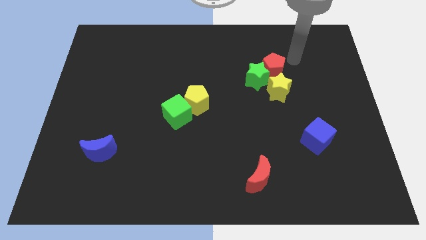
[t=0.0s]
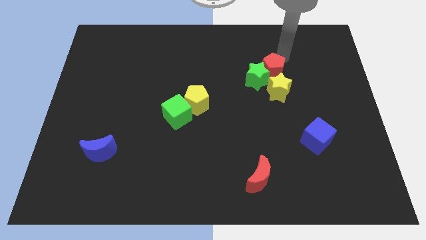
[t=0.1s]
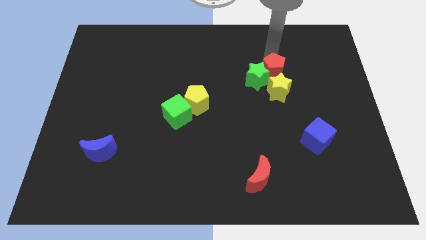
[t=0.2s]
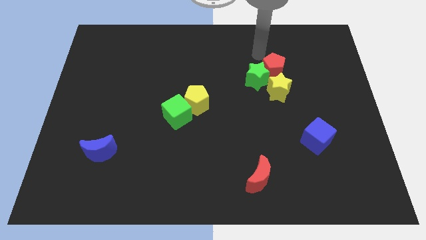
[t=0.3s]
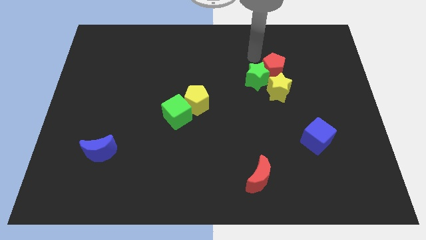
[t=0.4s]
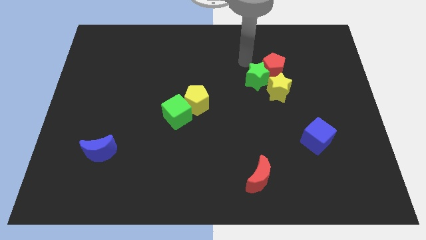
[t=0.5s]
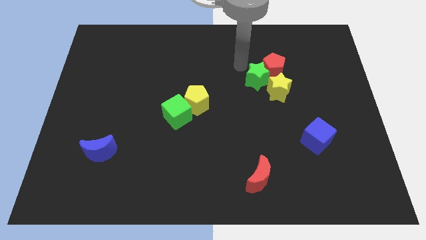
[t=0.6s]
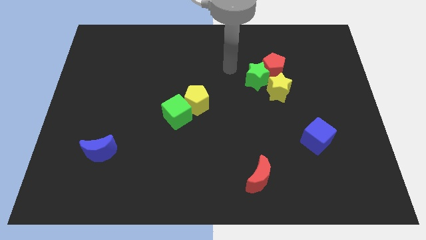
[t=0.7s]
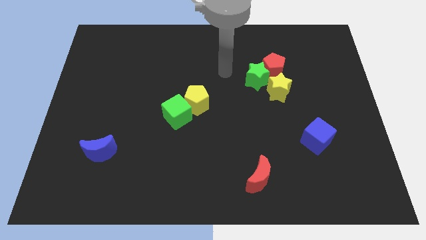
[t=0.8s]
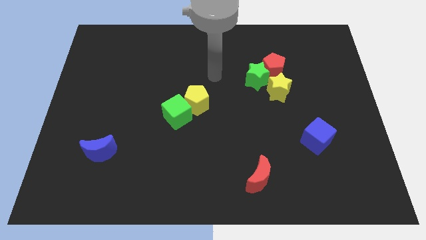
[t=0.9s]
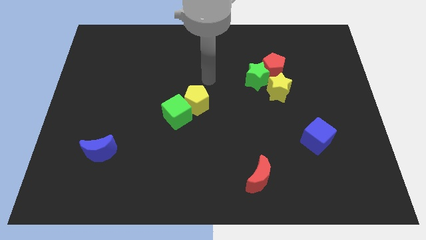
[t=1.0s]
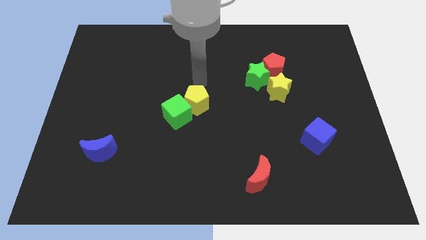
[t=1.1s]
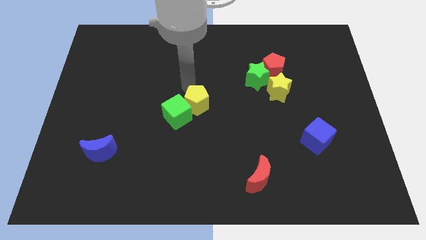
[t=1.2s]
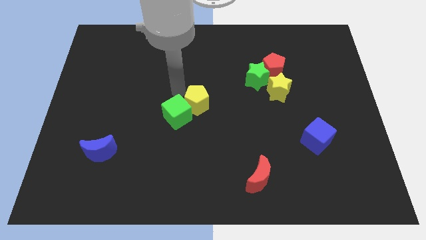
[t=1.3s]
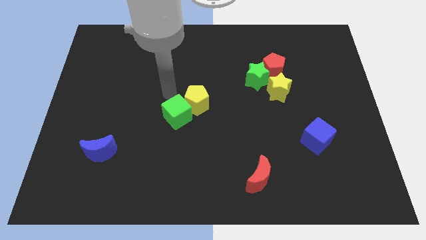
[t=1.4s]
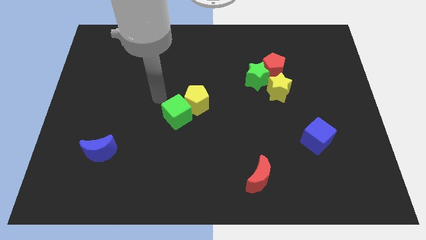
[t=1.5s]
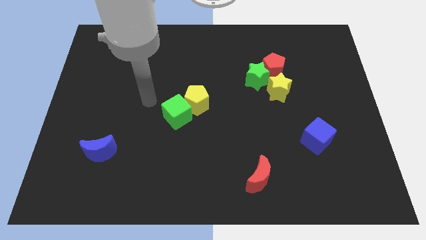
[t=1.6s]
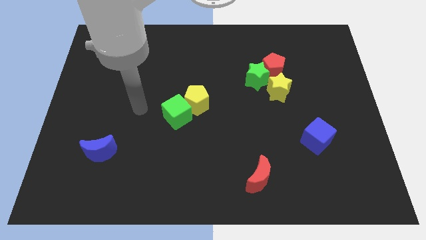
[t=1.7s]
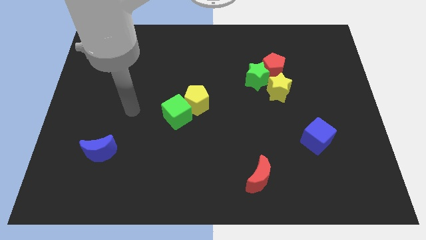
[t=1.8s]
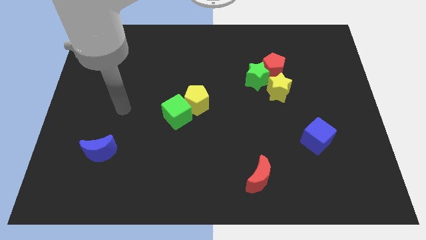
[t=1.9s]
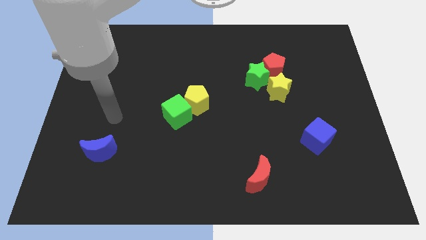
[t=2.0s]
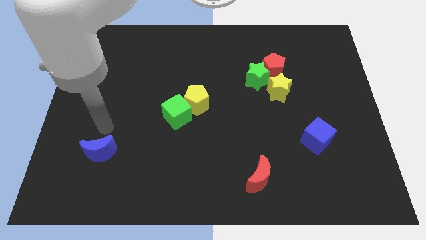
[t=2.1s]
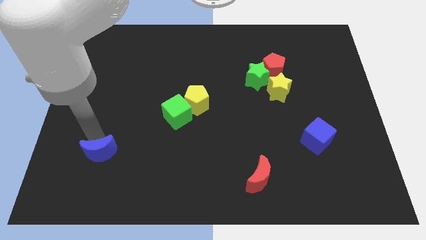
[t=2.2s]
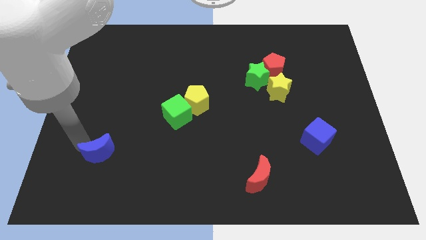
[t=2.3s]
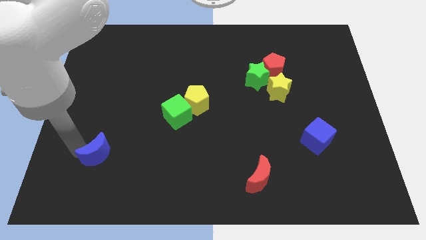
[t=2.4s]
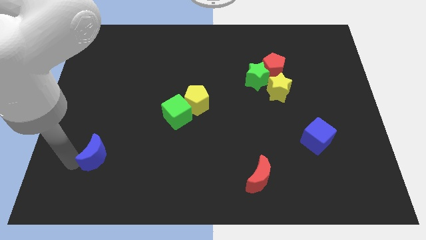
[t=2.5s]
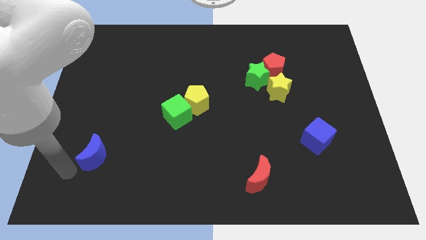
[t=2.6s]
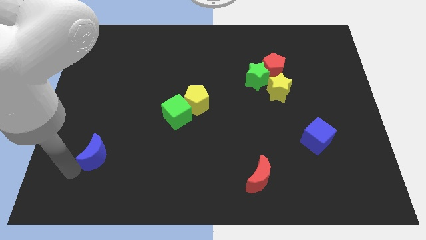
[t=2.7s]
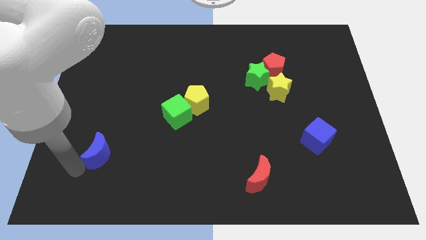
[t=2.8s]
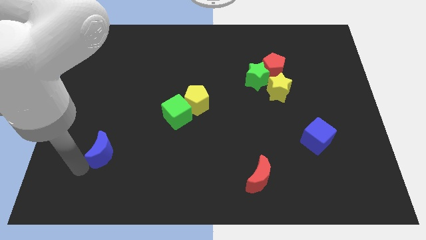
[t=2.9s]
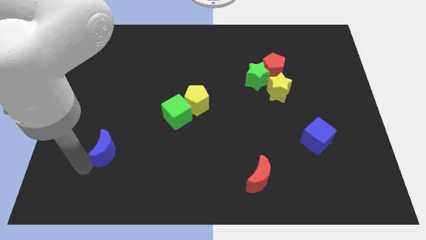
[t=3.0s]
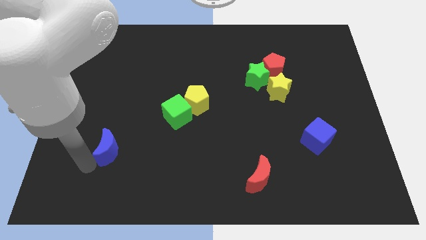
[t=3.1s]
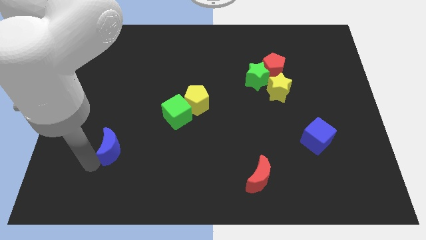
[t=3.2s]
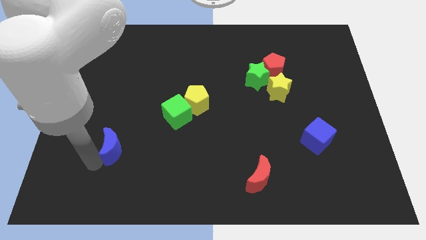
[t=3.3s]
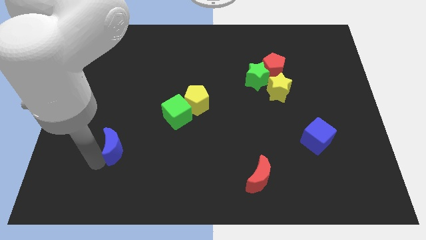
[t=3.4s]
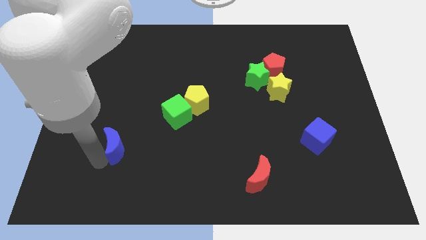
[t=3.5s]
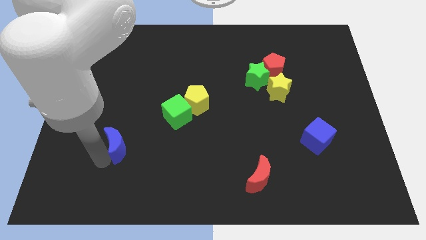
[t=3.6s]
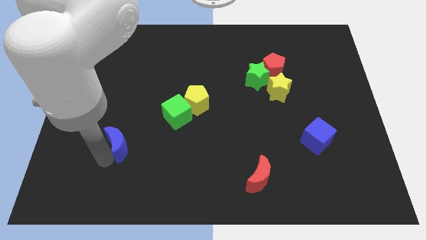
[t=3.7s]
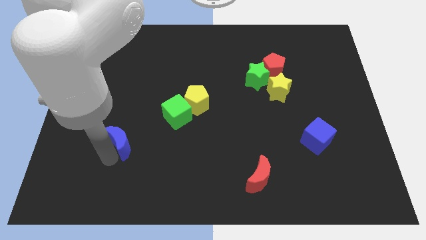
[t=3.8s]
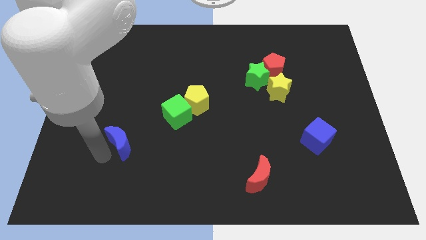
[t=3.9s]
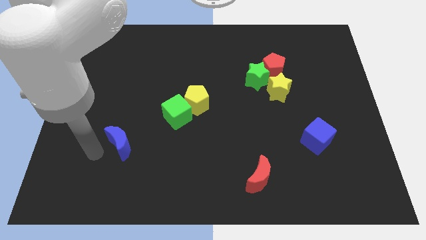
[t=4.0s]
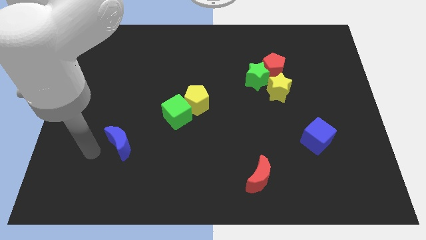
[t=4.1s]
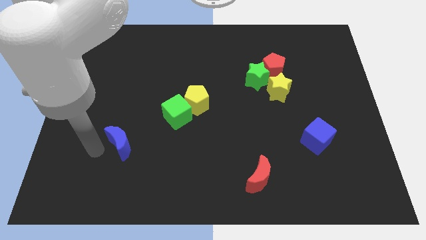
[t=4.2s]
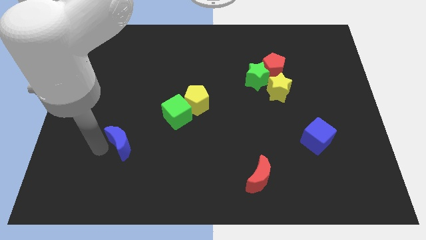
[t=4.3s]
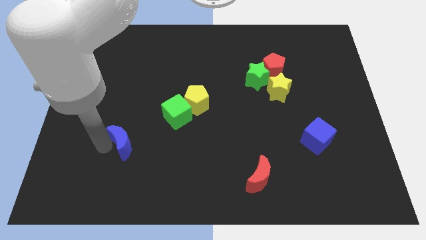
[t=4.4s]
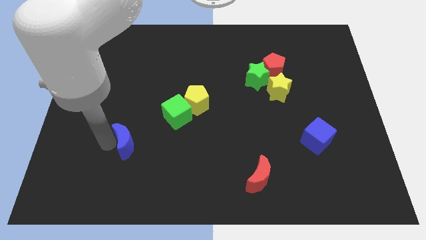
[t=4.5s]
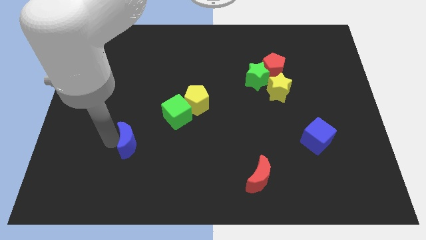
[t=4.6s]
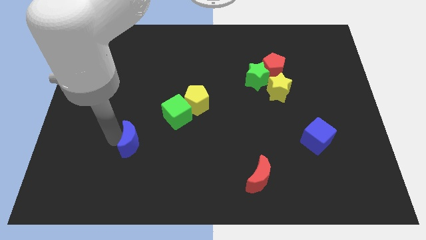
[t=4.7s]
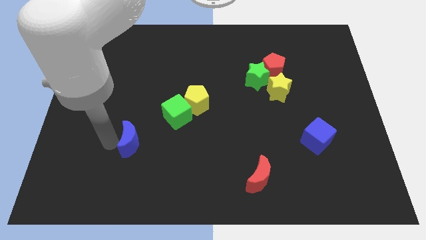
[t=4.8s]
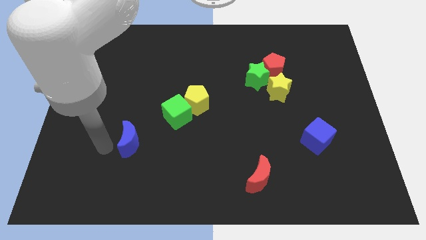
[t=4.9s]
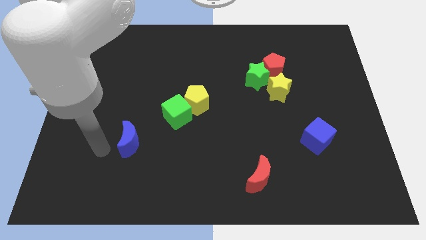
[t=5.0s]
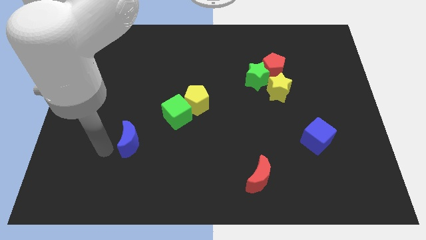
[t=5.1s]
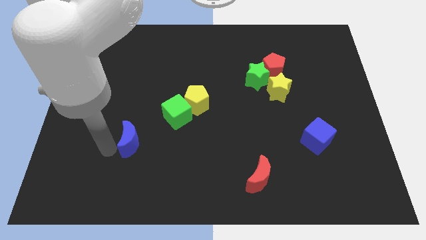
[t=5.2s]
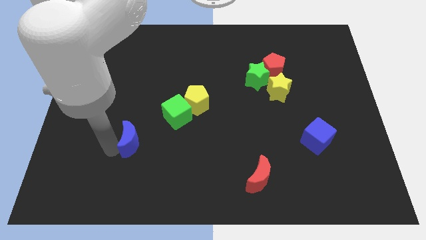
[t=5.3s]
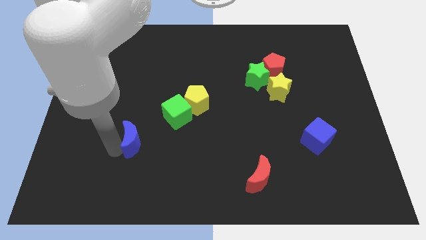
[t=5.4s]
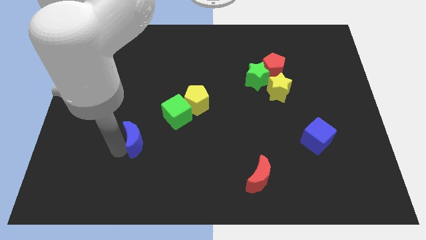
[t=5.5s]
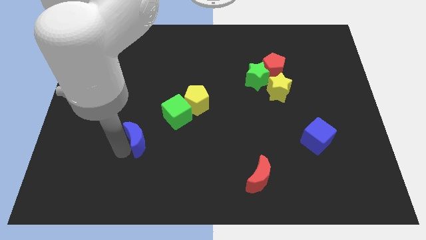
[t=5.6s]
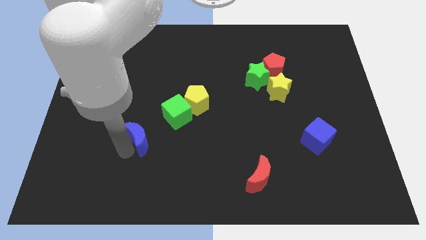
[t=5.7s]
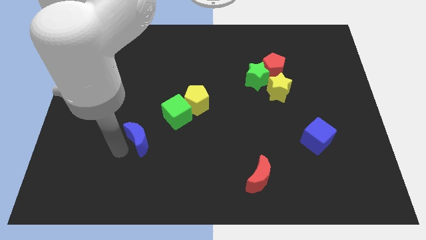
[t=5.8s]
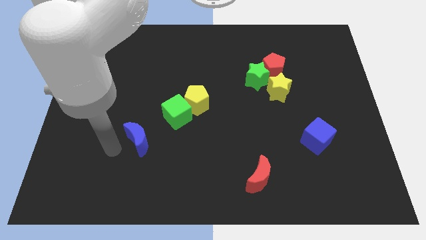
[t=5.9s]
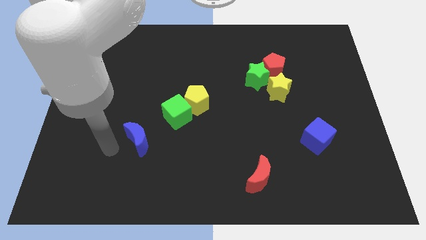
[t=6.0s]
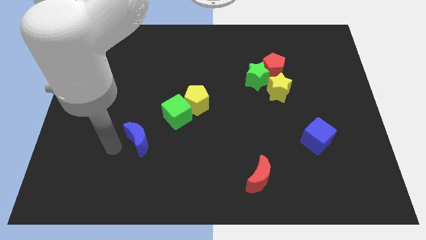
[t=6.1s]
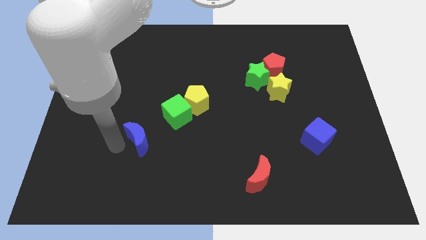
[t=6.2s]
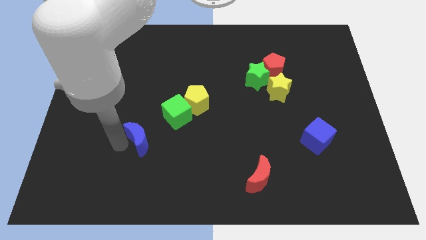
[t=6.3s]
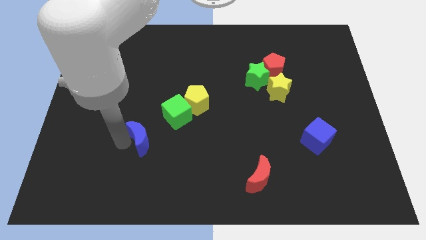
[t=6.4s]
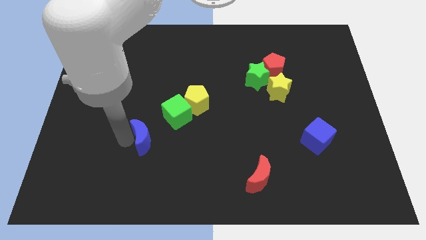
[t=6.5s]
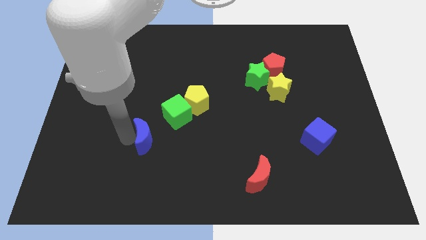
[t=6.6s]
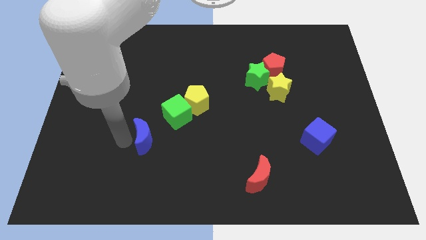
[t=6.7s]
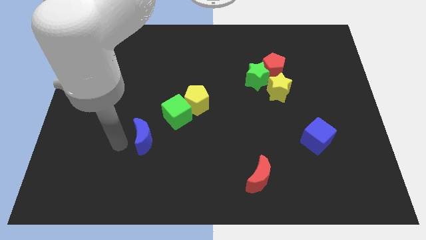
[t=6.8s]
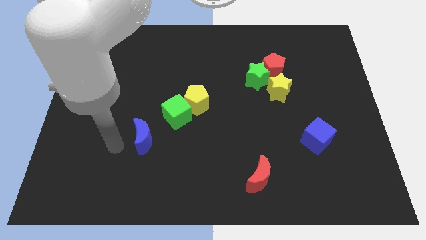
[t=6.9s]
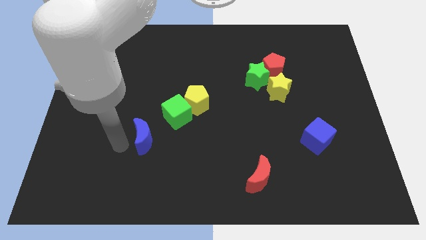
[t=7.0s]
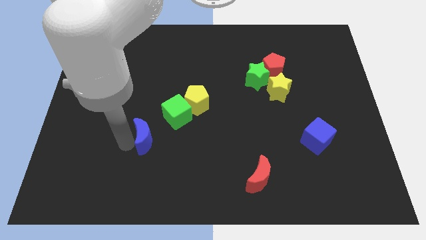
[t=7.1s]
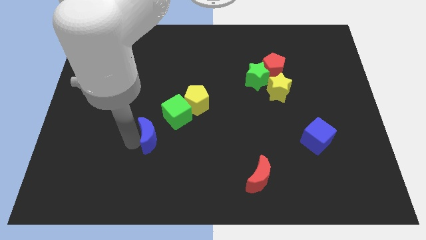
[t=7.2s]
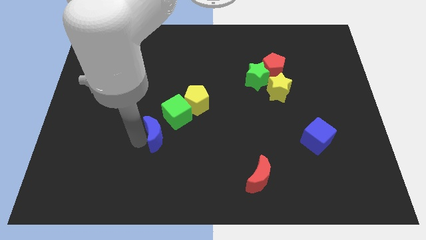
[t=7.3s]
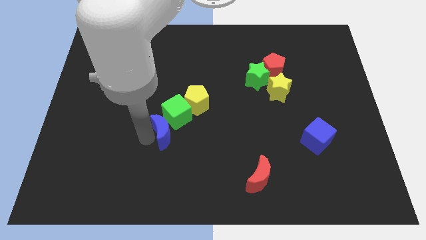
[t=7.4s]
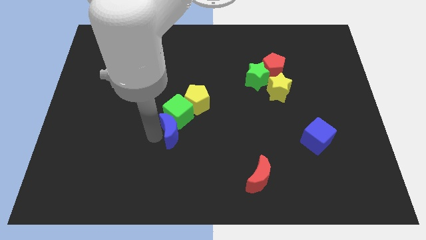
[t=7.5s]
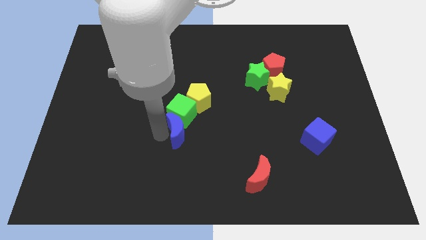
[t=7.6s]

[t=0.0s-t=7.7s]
move the blue moon to the center
